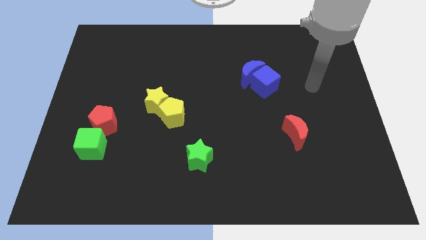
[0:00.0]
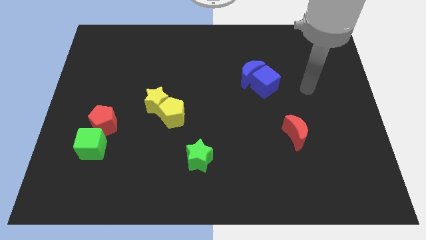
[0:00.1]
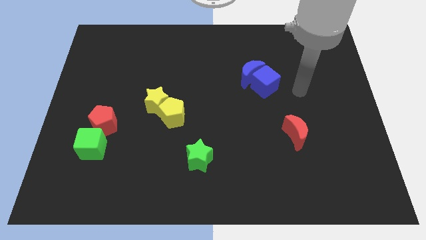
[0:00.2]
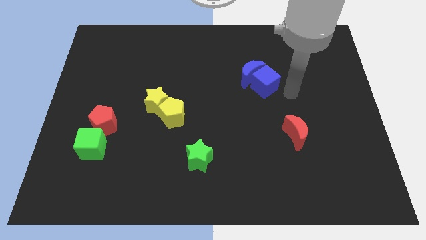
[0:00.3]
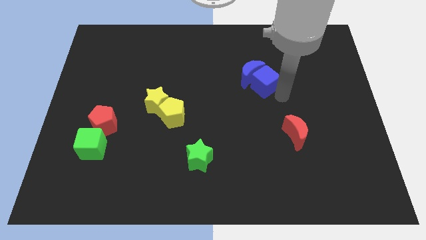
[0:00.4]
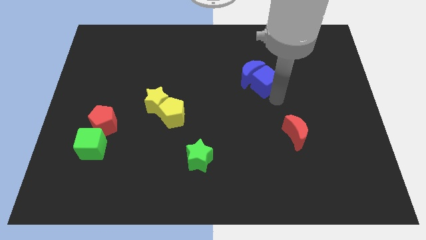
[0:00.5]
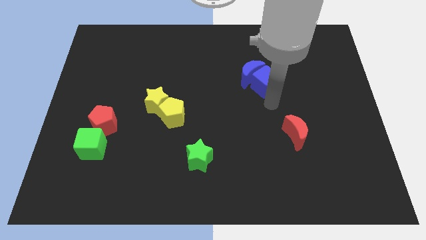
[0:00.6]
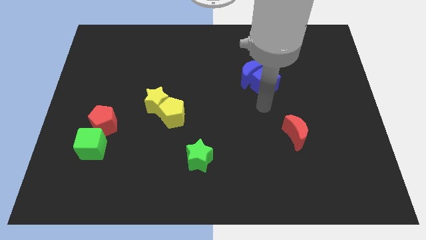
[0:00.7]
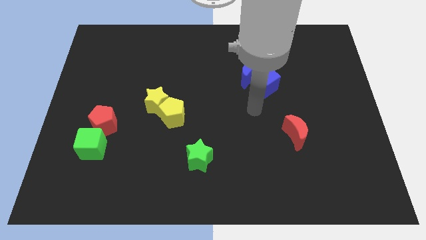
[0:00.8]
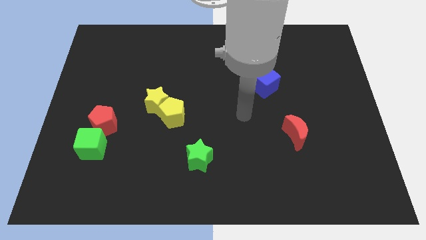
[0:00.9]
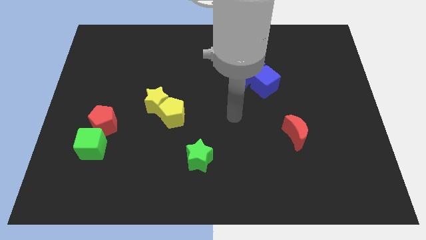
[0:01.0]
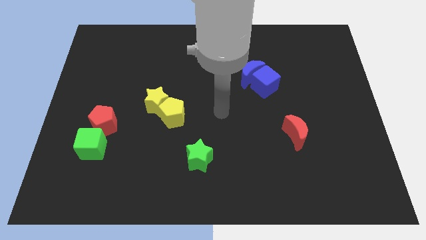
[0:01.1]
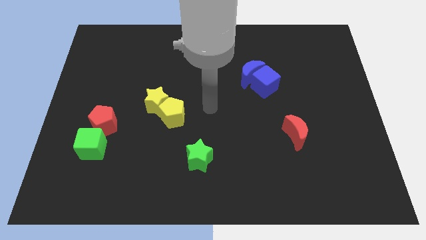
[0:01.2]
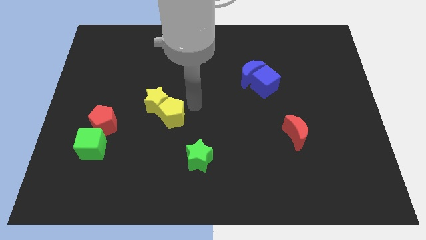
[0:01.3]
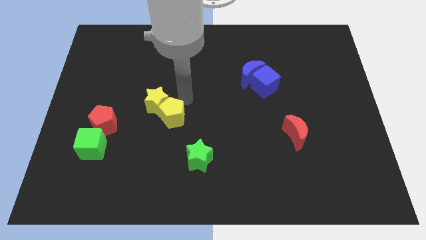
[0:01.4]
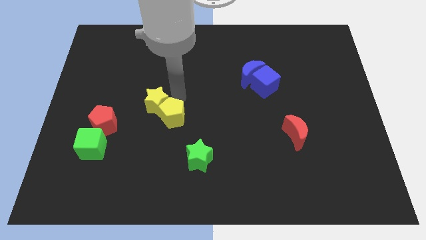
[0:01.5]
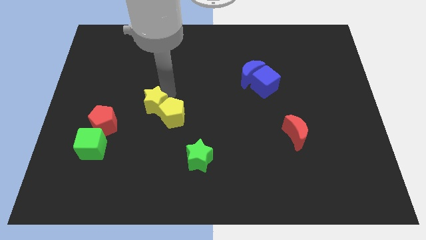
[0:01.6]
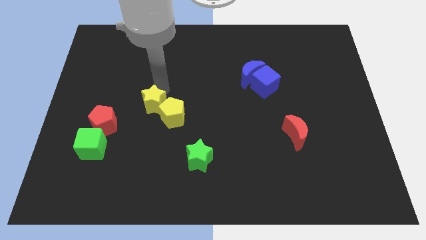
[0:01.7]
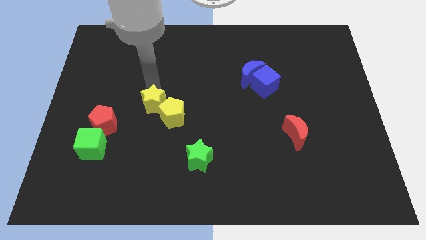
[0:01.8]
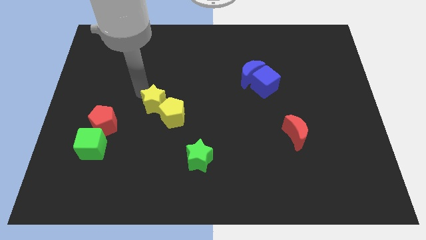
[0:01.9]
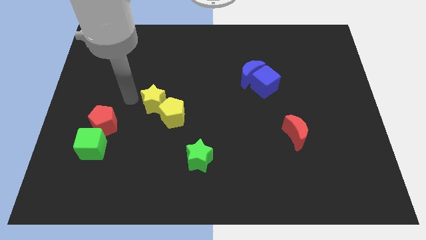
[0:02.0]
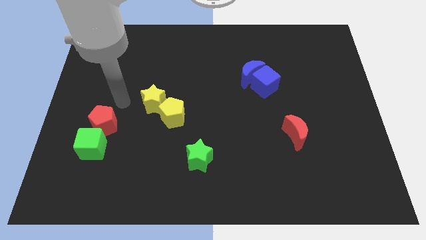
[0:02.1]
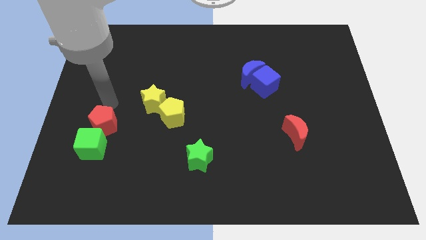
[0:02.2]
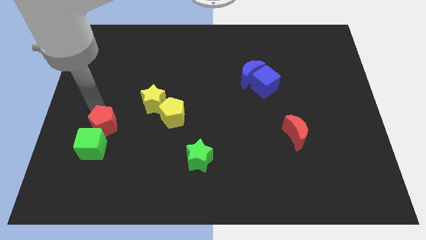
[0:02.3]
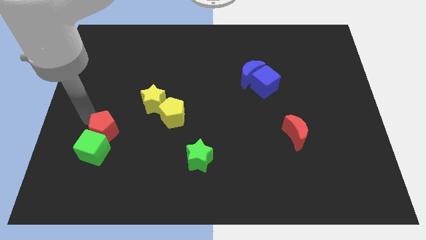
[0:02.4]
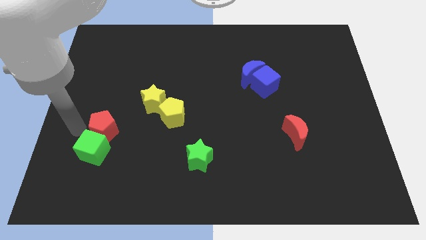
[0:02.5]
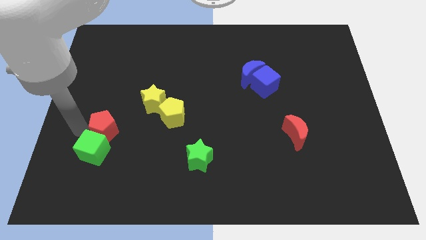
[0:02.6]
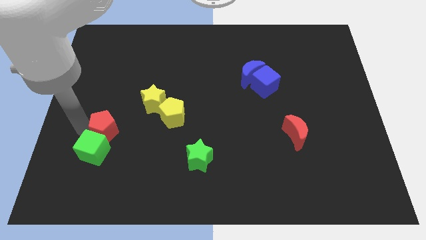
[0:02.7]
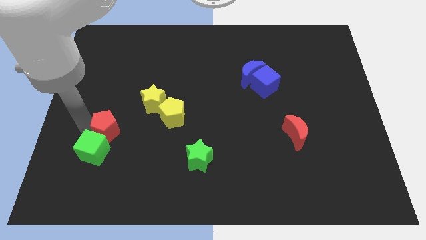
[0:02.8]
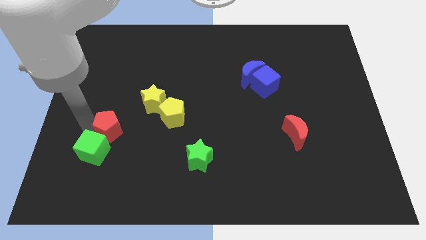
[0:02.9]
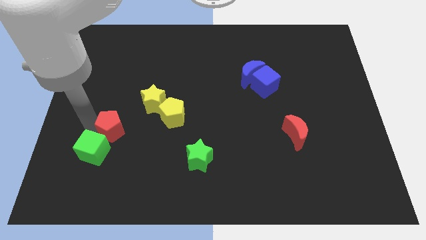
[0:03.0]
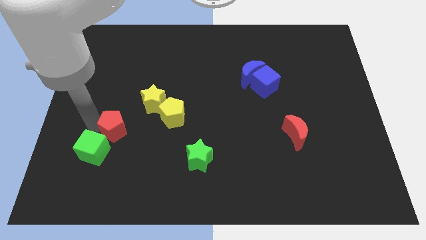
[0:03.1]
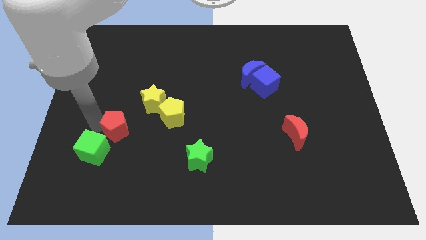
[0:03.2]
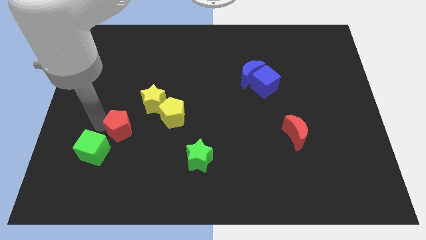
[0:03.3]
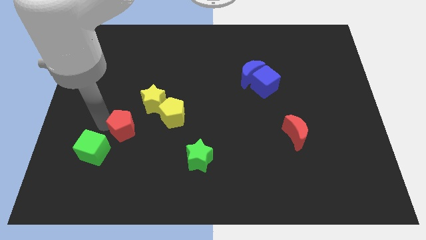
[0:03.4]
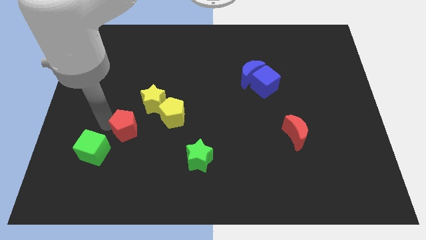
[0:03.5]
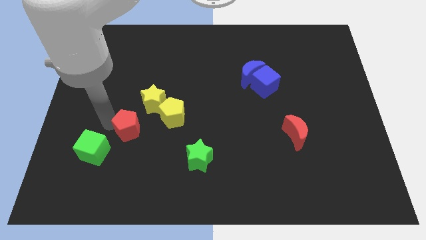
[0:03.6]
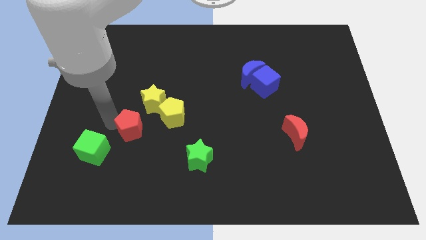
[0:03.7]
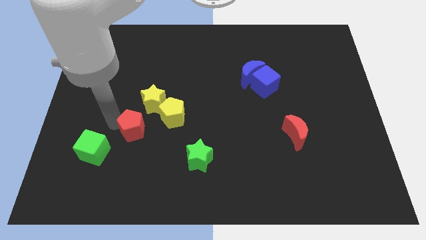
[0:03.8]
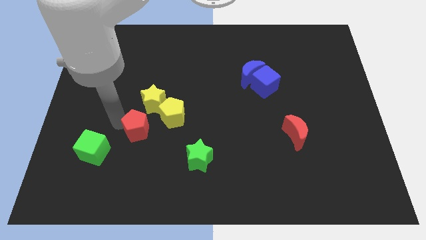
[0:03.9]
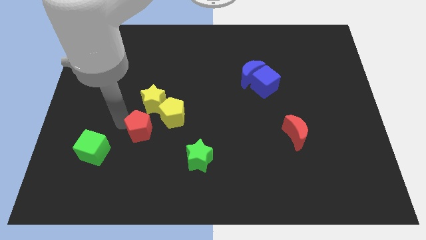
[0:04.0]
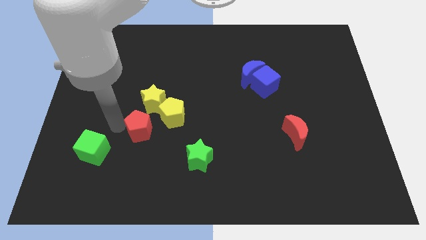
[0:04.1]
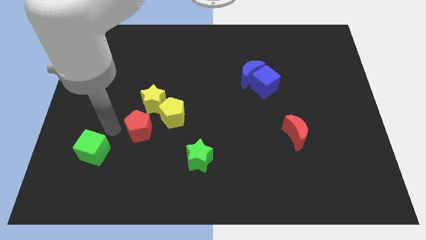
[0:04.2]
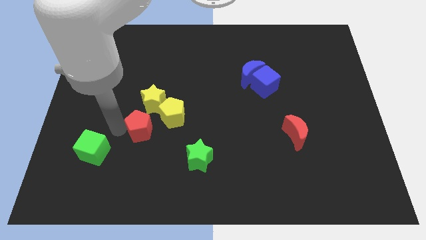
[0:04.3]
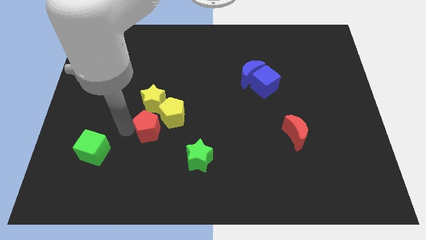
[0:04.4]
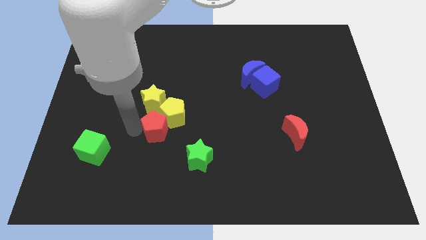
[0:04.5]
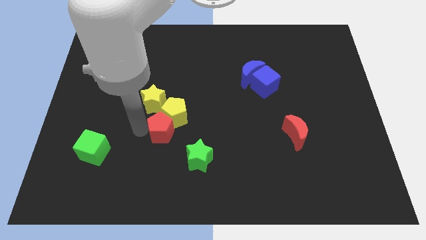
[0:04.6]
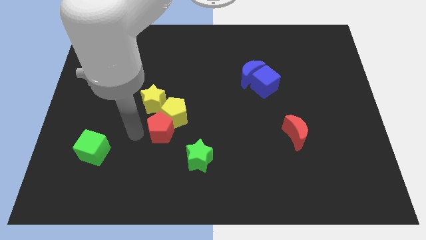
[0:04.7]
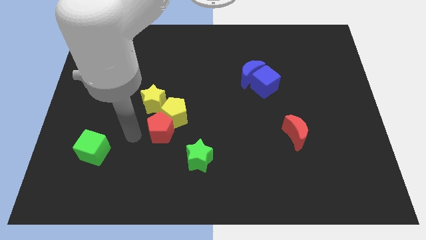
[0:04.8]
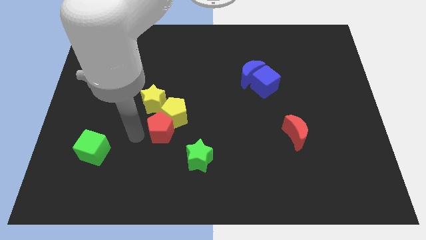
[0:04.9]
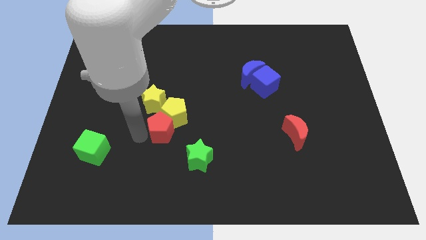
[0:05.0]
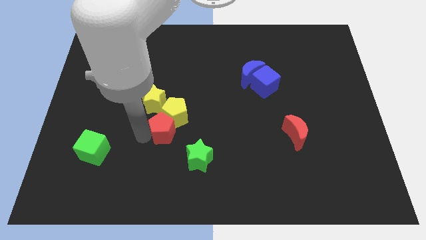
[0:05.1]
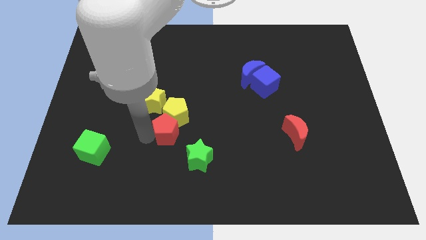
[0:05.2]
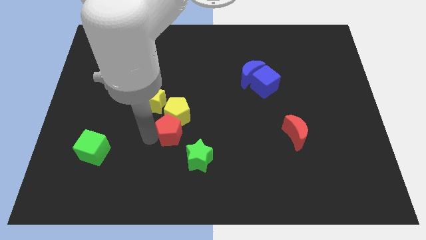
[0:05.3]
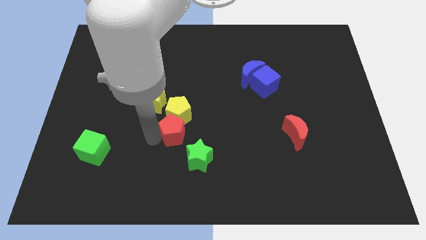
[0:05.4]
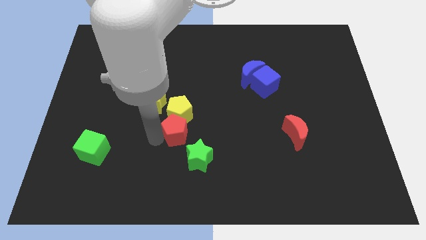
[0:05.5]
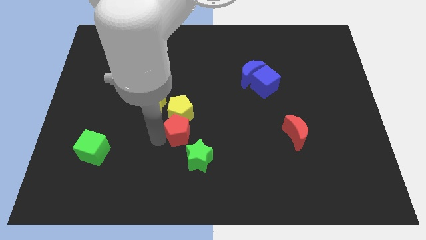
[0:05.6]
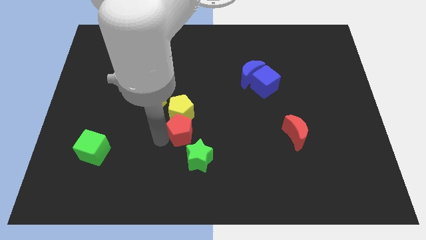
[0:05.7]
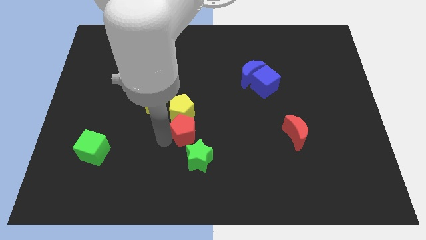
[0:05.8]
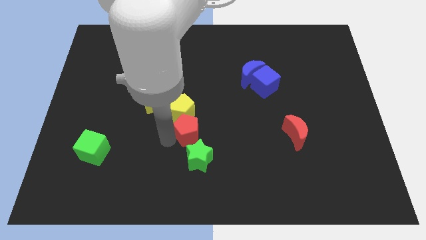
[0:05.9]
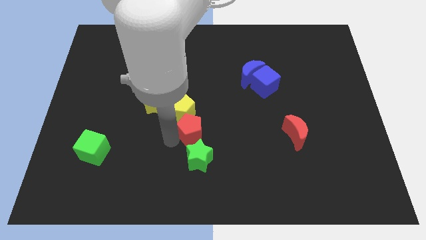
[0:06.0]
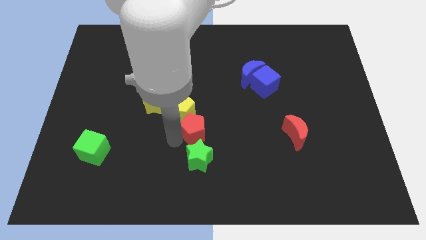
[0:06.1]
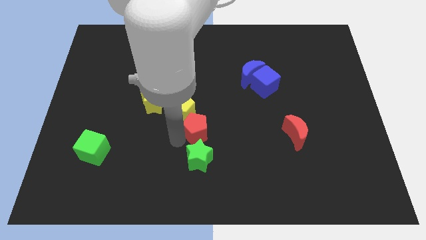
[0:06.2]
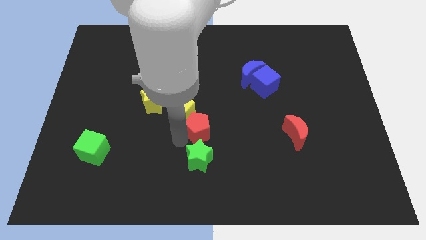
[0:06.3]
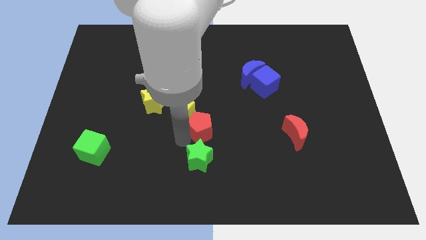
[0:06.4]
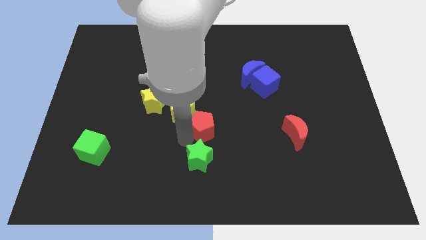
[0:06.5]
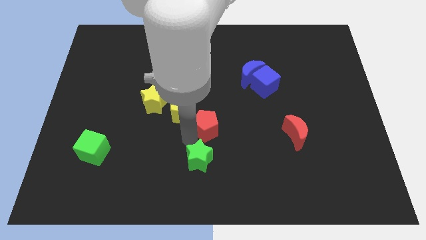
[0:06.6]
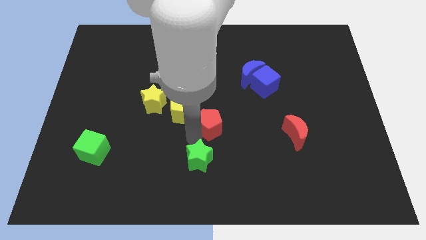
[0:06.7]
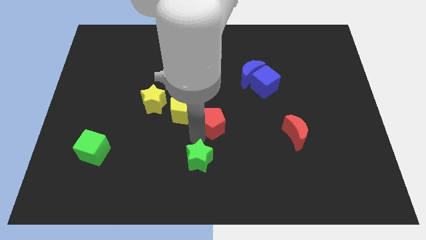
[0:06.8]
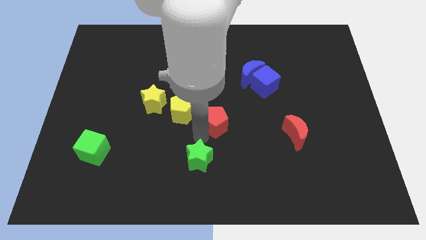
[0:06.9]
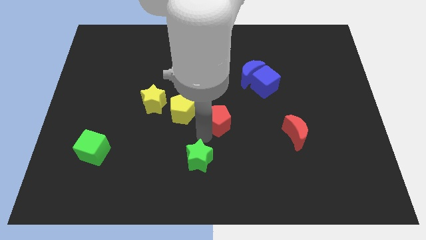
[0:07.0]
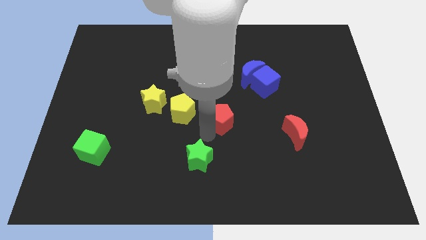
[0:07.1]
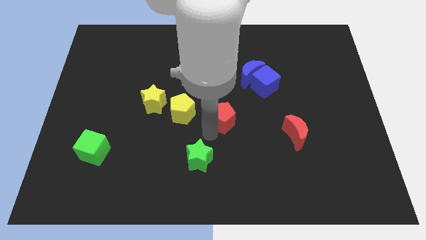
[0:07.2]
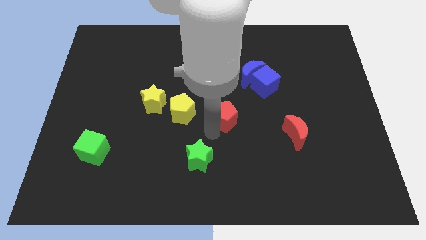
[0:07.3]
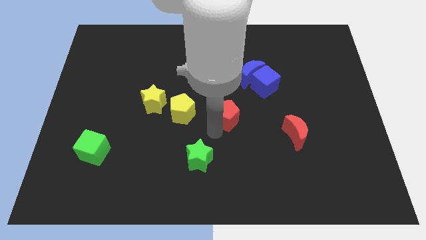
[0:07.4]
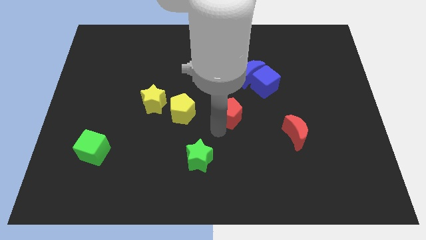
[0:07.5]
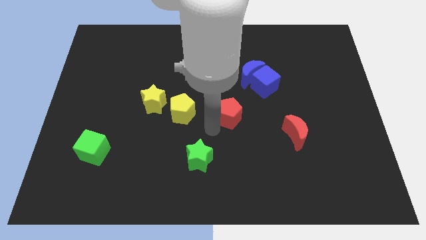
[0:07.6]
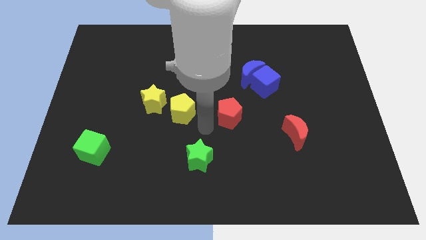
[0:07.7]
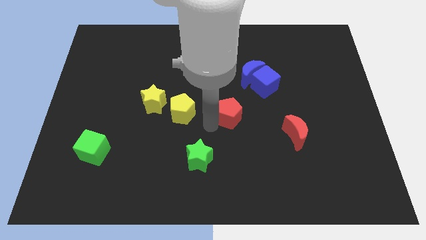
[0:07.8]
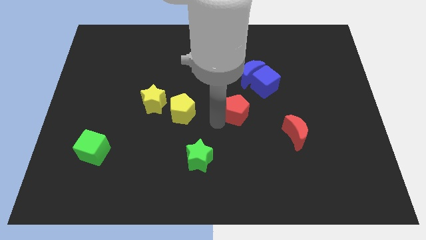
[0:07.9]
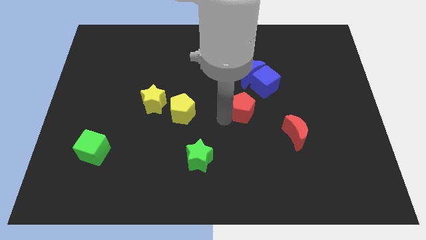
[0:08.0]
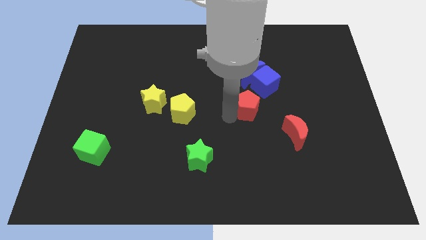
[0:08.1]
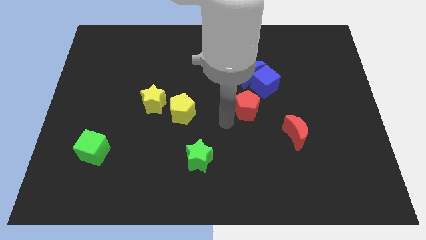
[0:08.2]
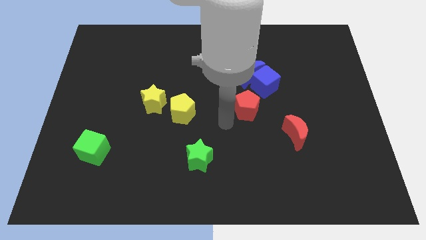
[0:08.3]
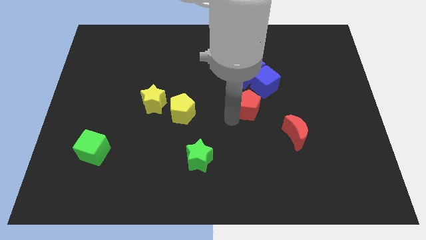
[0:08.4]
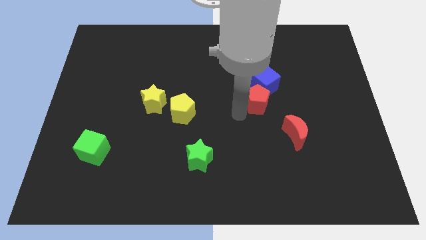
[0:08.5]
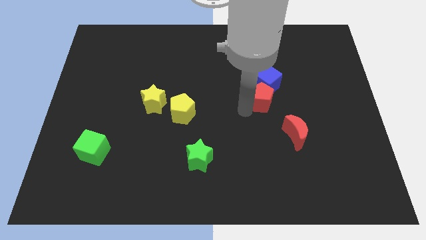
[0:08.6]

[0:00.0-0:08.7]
put the red pentagon to the bottom right side of the blue moon
